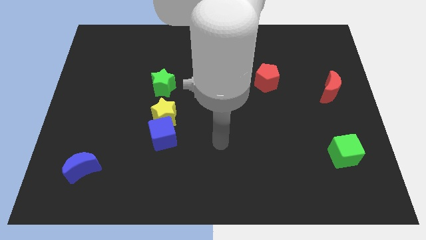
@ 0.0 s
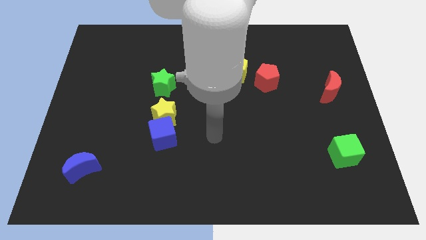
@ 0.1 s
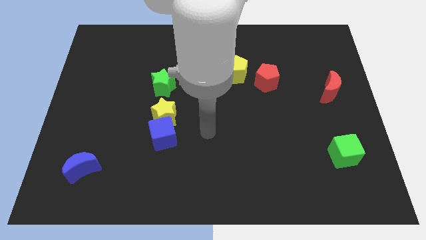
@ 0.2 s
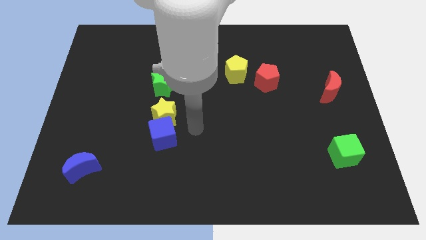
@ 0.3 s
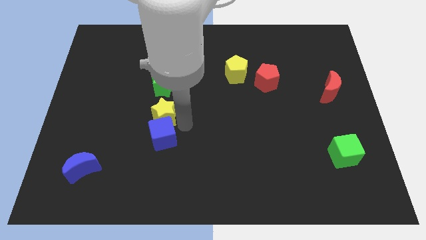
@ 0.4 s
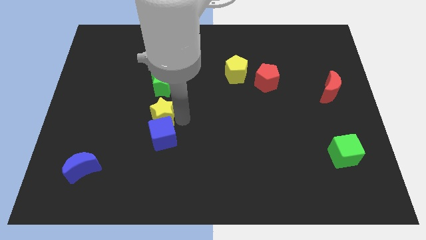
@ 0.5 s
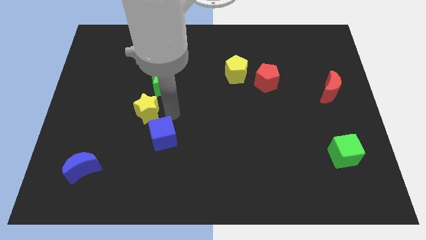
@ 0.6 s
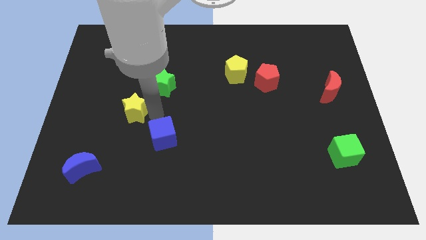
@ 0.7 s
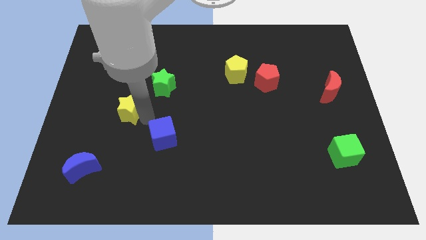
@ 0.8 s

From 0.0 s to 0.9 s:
pull the blue cube apart from the yellow star

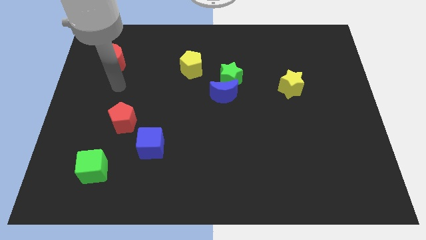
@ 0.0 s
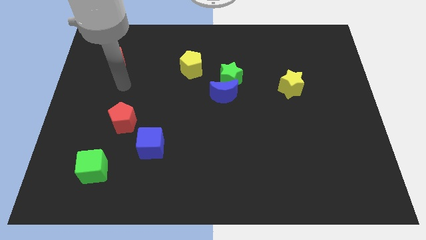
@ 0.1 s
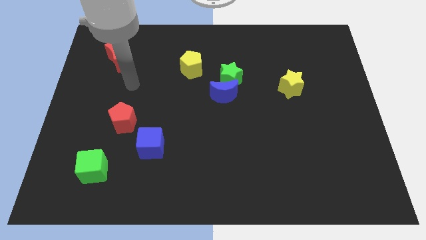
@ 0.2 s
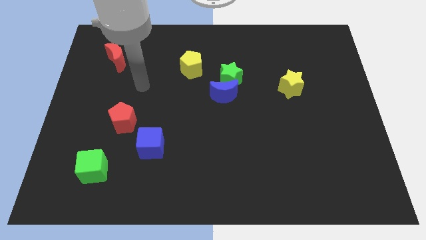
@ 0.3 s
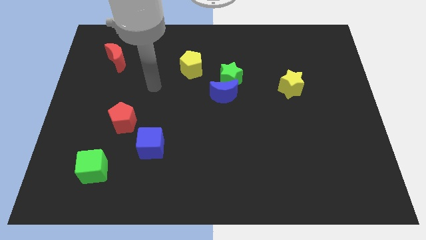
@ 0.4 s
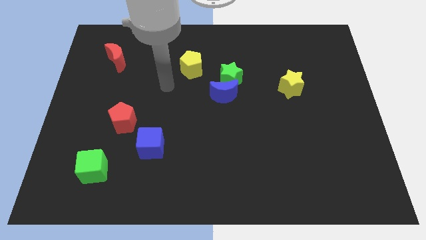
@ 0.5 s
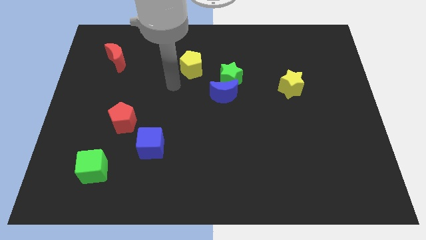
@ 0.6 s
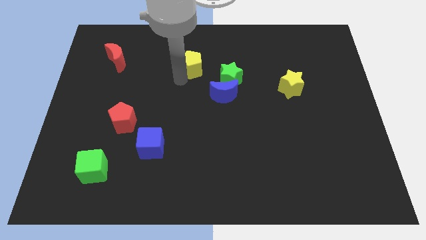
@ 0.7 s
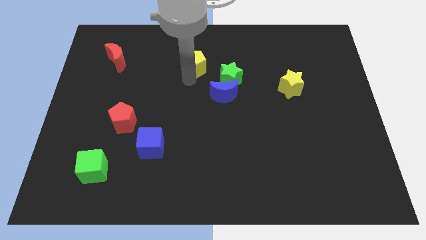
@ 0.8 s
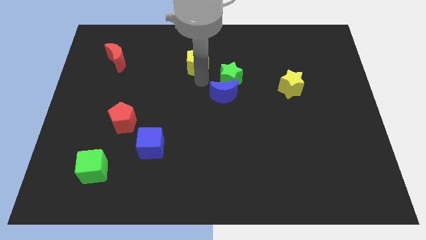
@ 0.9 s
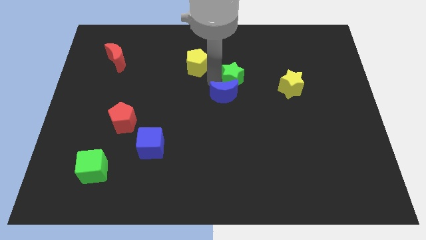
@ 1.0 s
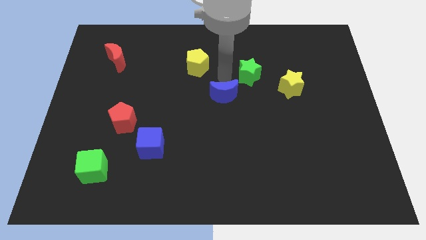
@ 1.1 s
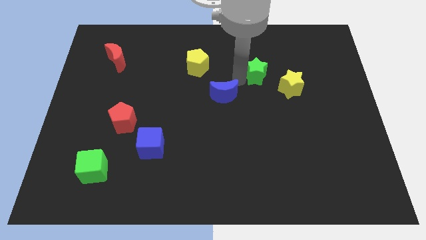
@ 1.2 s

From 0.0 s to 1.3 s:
pull the blue moon apart from the green star

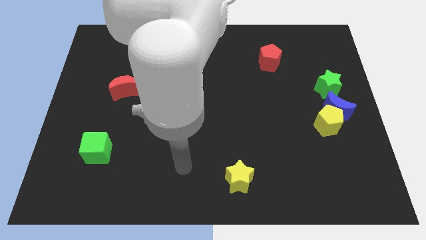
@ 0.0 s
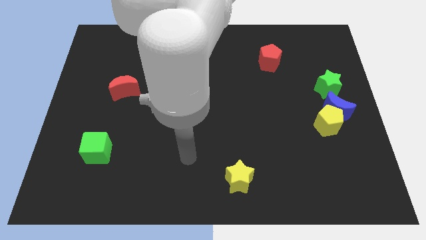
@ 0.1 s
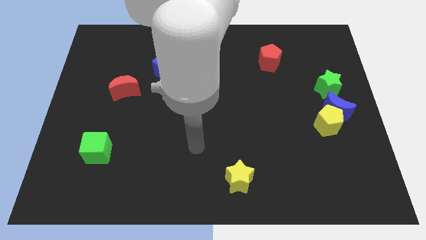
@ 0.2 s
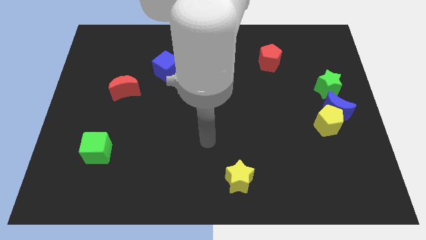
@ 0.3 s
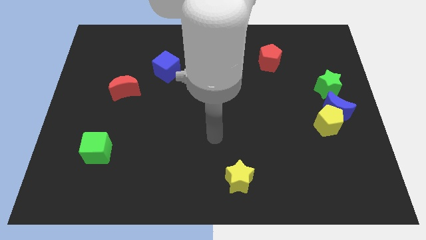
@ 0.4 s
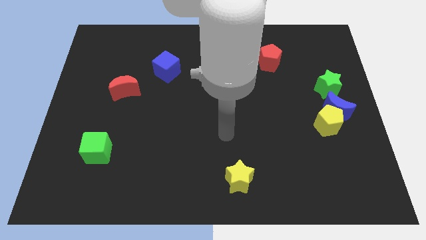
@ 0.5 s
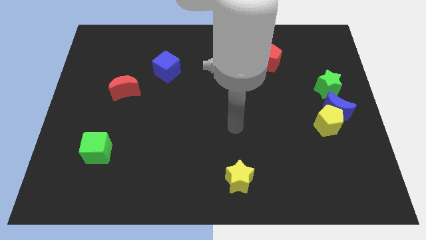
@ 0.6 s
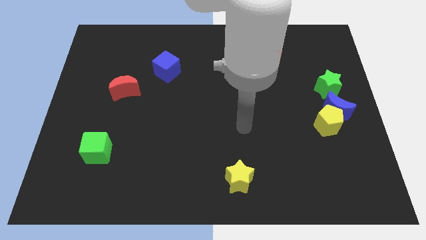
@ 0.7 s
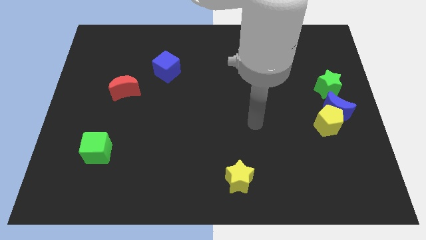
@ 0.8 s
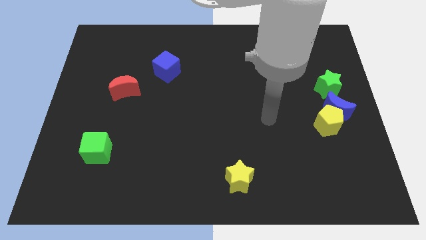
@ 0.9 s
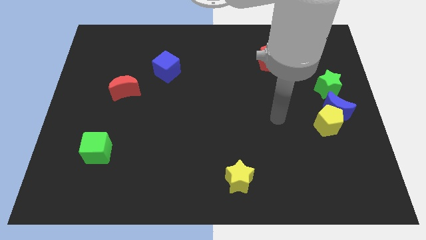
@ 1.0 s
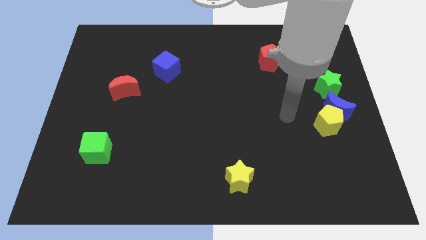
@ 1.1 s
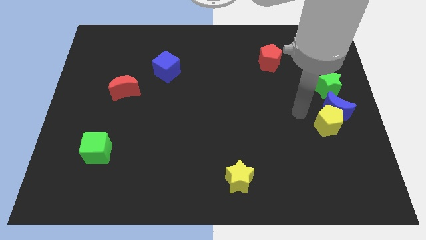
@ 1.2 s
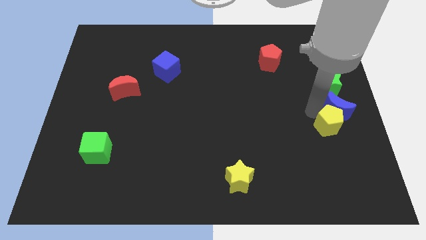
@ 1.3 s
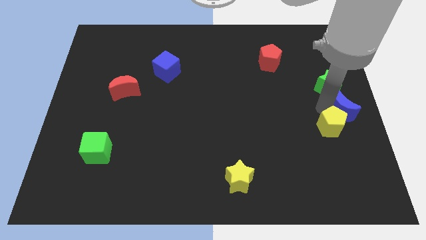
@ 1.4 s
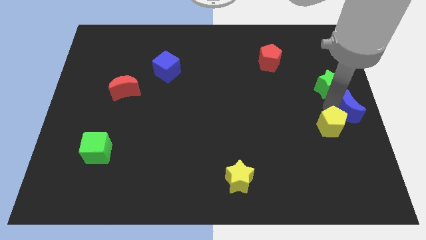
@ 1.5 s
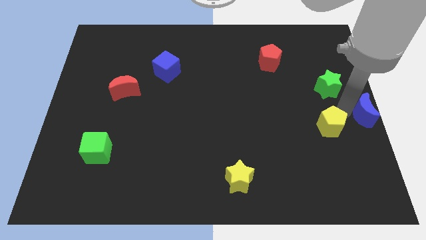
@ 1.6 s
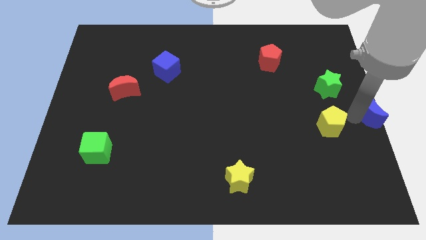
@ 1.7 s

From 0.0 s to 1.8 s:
separate the yellow pentagon from the blue moon

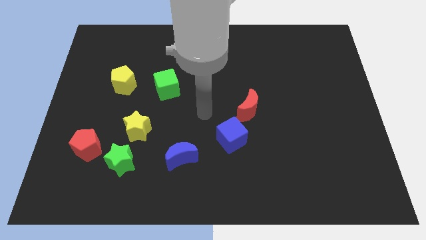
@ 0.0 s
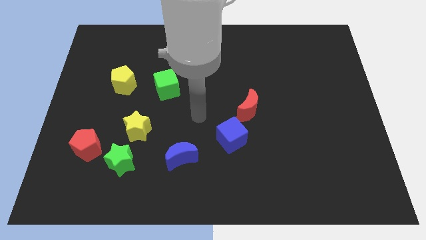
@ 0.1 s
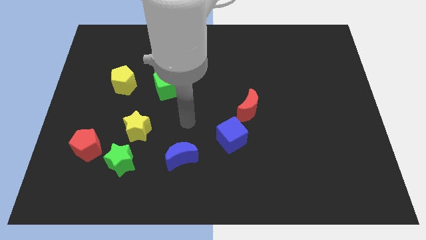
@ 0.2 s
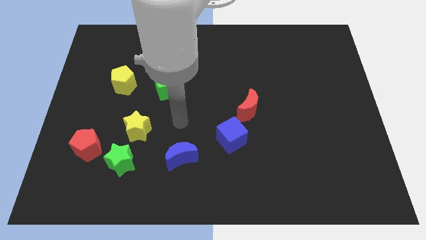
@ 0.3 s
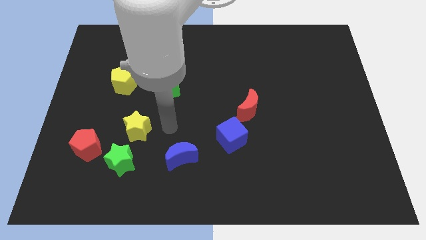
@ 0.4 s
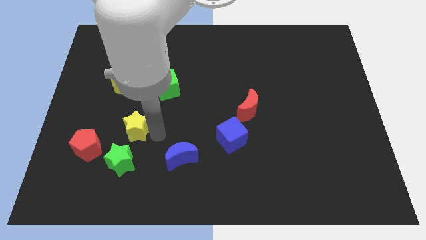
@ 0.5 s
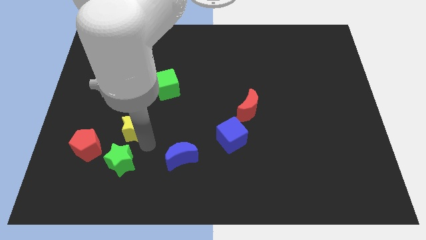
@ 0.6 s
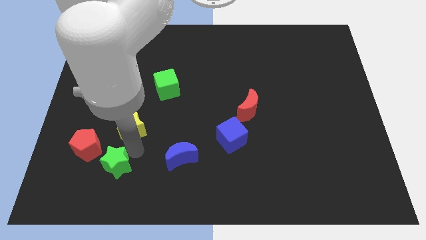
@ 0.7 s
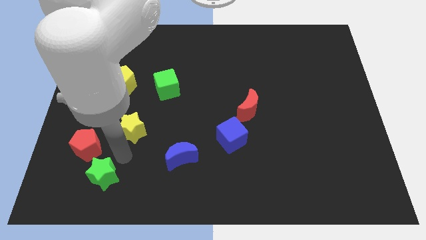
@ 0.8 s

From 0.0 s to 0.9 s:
move the yellow star away from the green star

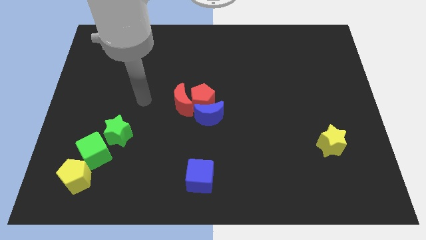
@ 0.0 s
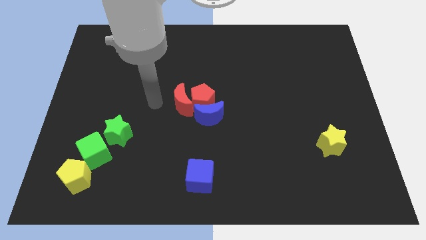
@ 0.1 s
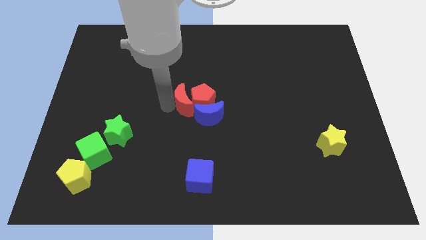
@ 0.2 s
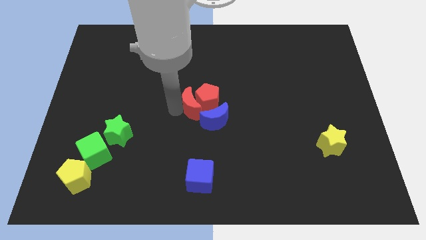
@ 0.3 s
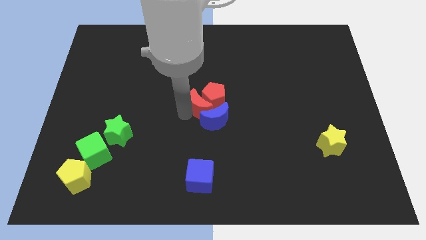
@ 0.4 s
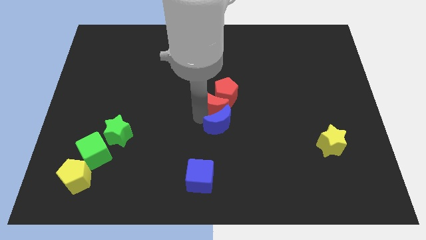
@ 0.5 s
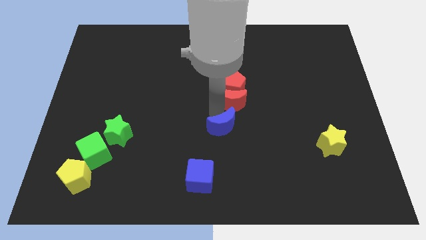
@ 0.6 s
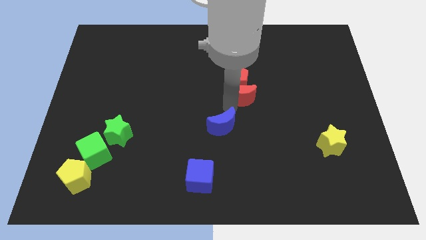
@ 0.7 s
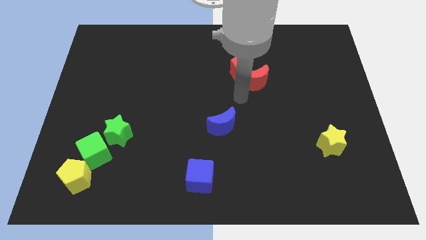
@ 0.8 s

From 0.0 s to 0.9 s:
separate the red pentagon from the red moon and blue moon

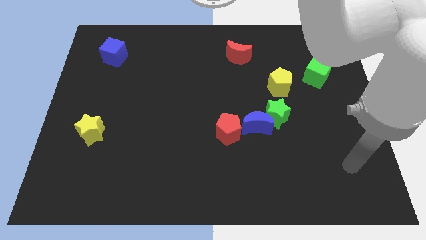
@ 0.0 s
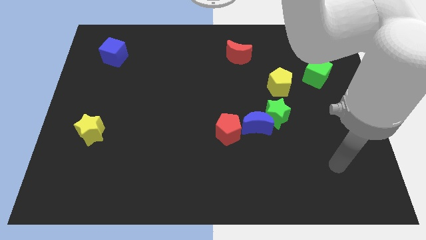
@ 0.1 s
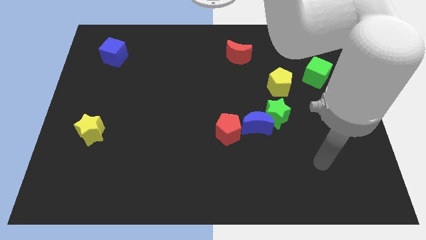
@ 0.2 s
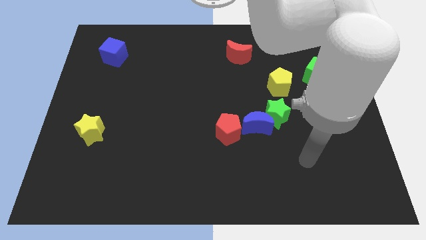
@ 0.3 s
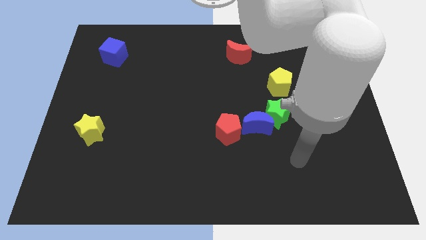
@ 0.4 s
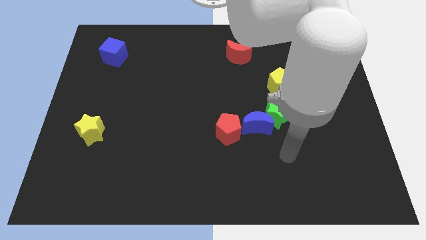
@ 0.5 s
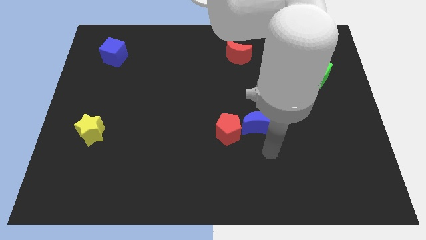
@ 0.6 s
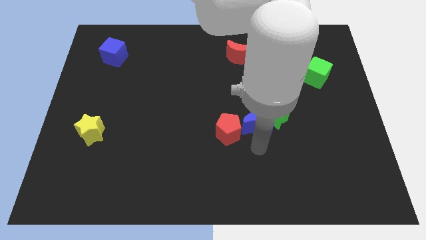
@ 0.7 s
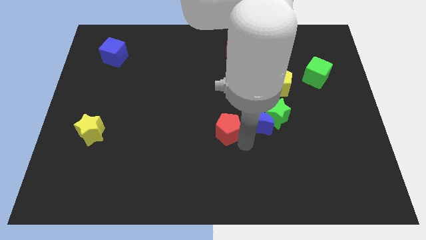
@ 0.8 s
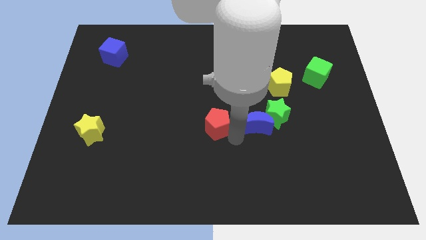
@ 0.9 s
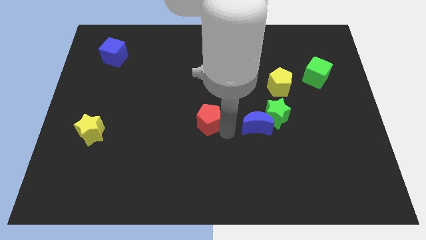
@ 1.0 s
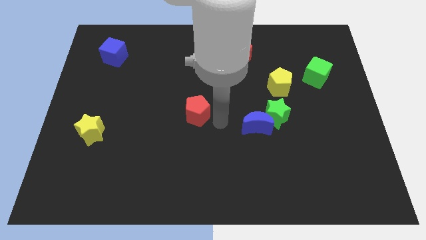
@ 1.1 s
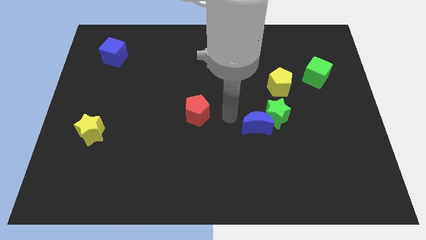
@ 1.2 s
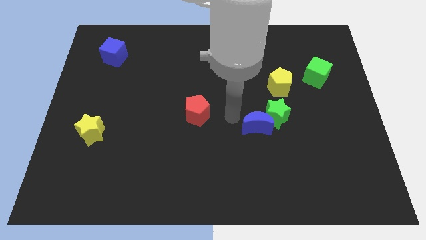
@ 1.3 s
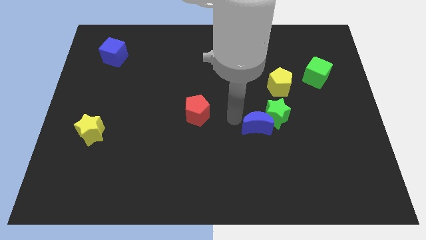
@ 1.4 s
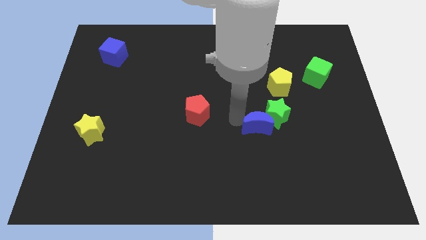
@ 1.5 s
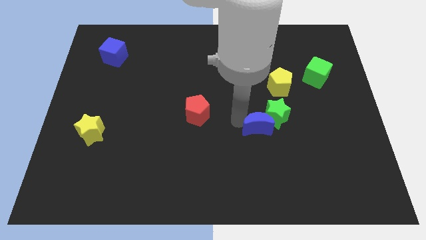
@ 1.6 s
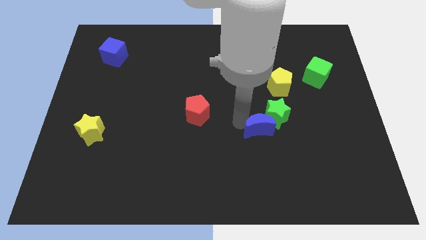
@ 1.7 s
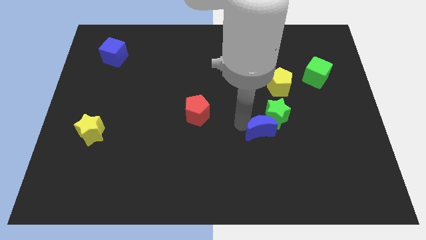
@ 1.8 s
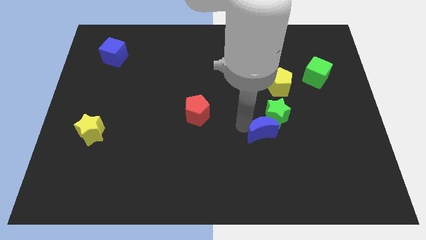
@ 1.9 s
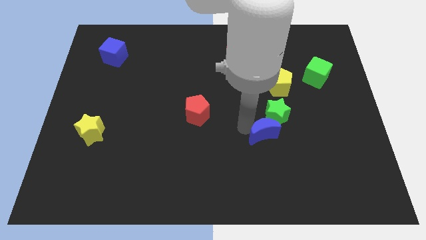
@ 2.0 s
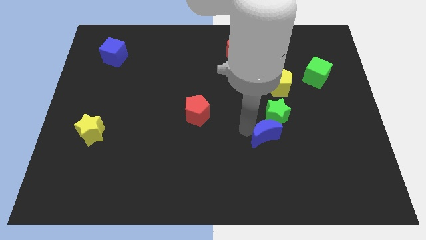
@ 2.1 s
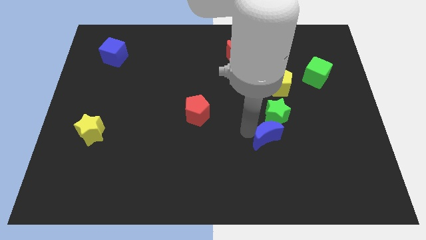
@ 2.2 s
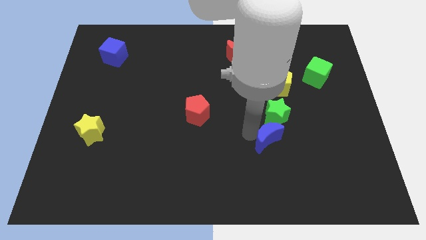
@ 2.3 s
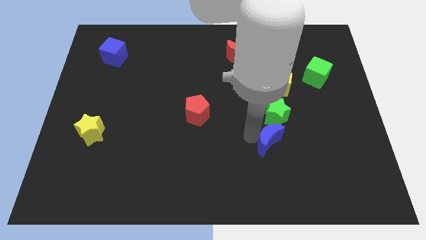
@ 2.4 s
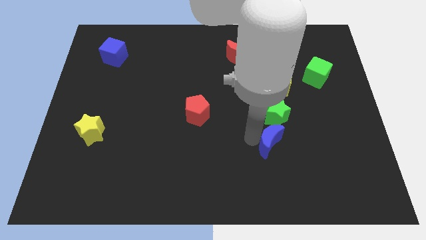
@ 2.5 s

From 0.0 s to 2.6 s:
move the blue moon away from the green star and red pentagon

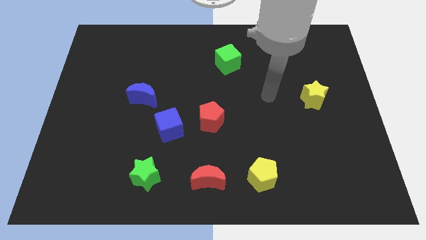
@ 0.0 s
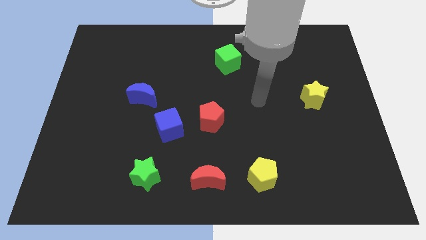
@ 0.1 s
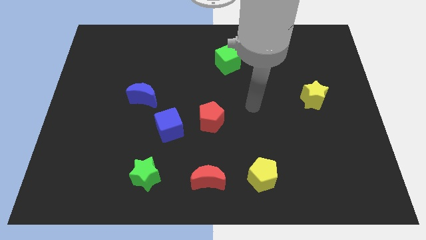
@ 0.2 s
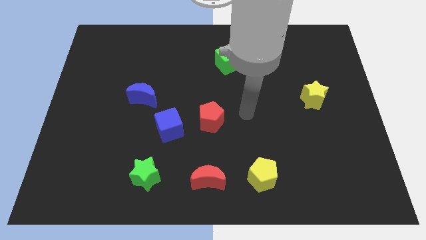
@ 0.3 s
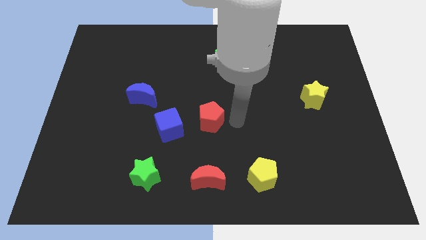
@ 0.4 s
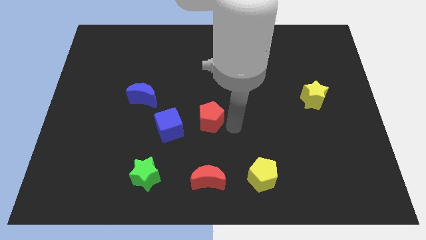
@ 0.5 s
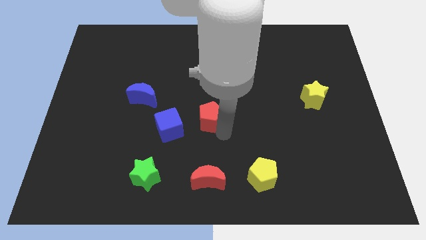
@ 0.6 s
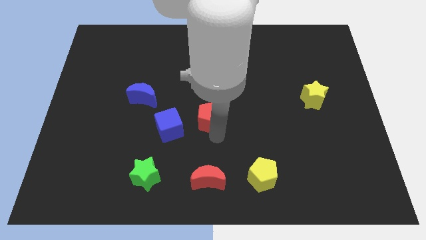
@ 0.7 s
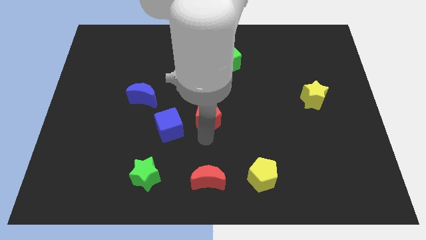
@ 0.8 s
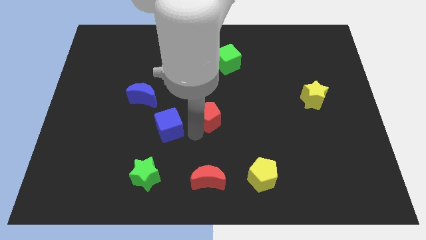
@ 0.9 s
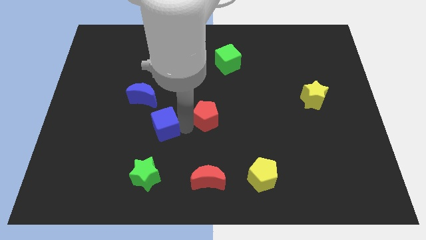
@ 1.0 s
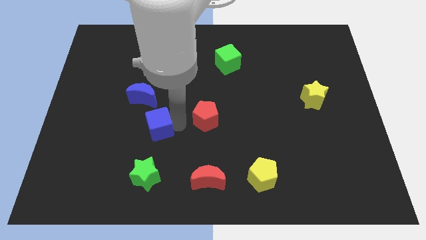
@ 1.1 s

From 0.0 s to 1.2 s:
move the red pentagon away from the blue cube
